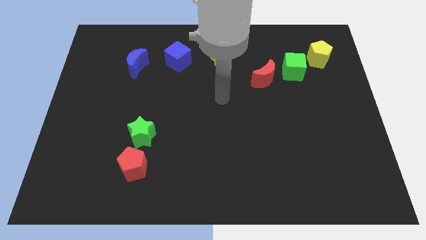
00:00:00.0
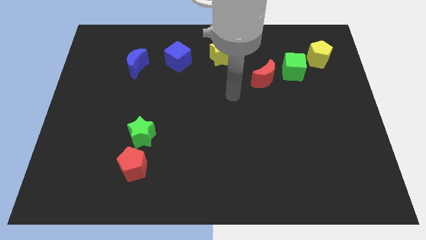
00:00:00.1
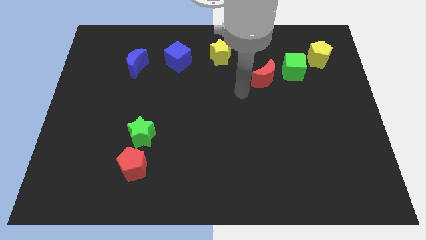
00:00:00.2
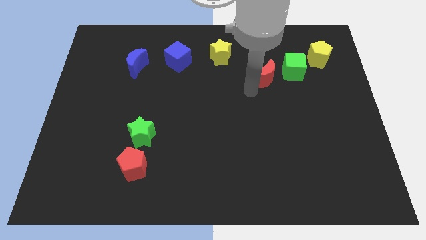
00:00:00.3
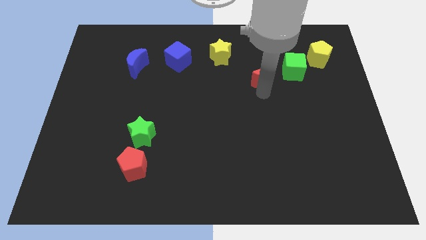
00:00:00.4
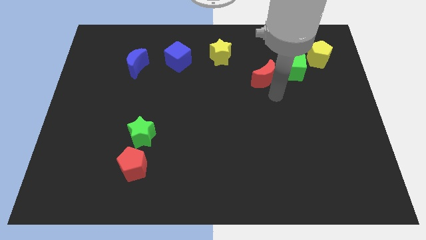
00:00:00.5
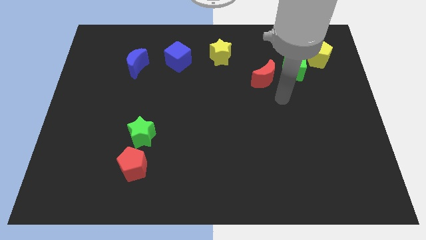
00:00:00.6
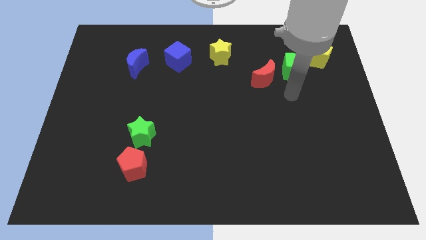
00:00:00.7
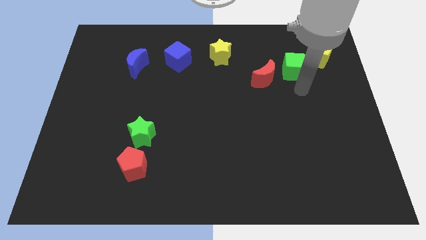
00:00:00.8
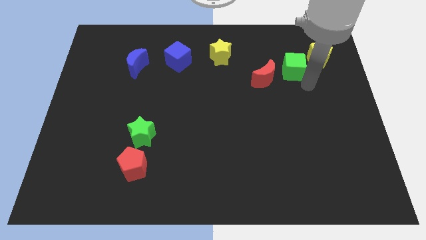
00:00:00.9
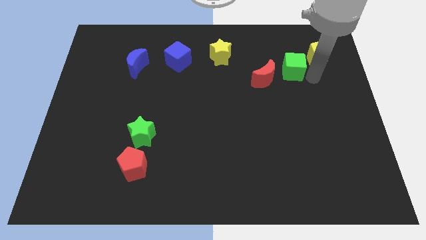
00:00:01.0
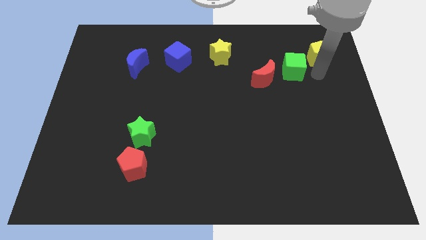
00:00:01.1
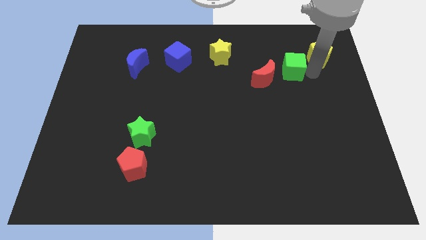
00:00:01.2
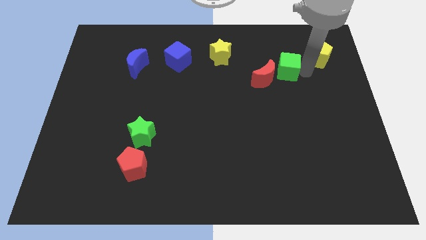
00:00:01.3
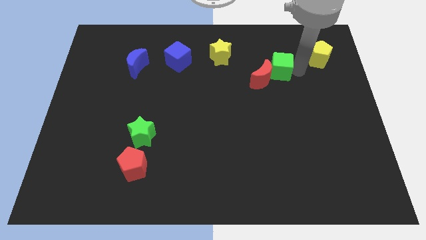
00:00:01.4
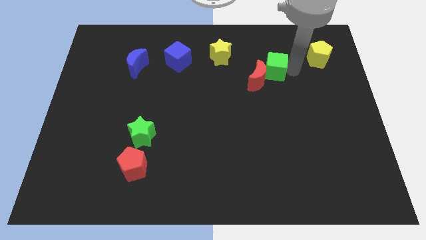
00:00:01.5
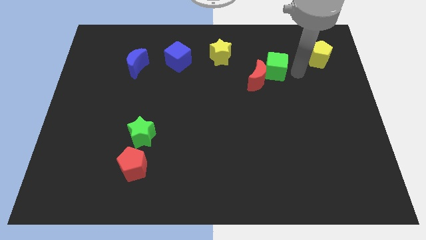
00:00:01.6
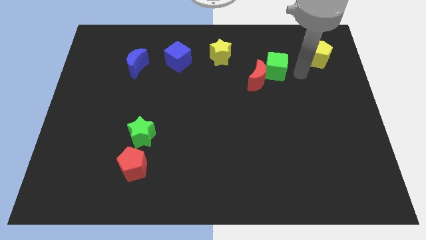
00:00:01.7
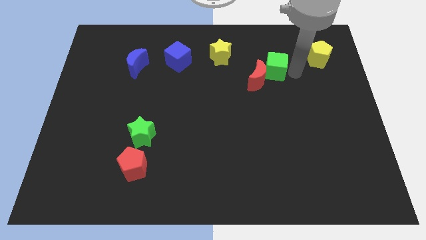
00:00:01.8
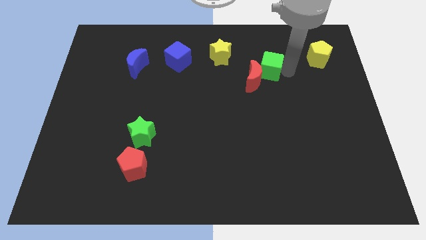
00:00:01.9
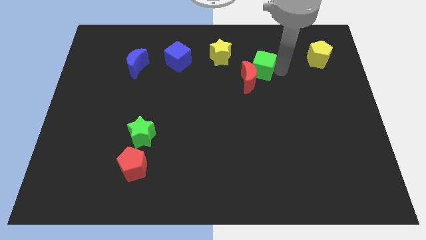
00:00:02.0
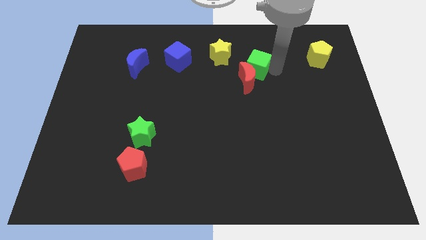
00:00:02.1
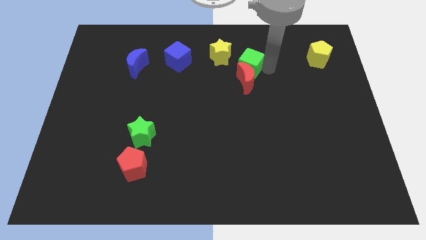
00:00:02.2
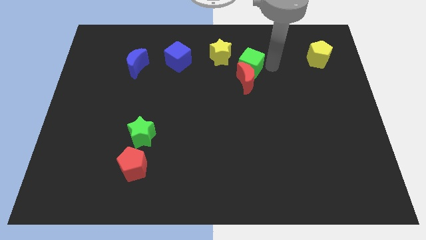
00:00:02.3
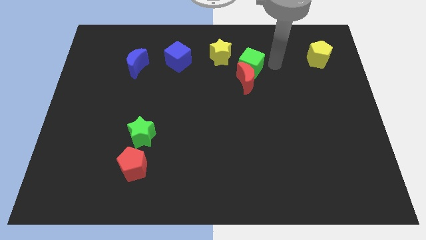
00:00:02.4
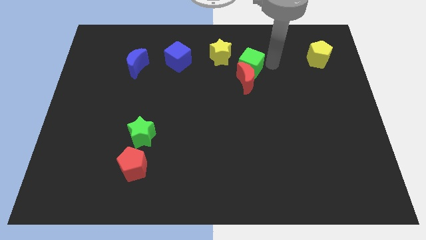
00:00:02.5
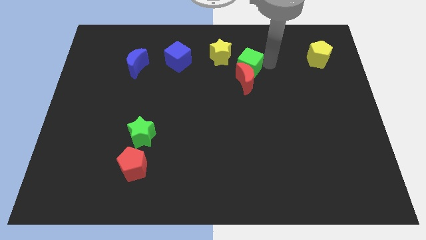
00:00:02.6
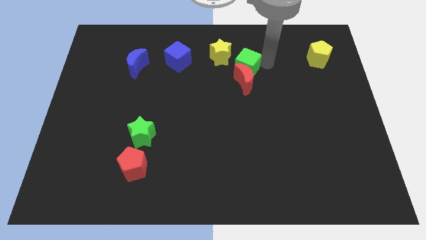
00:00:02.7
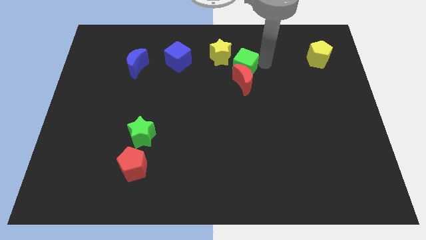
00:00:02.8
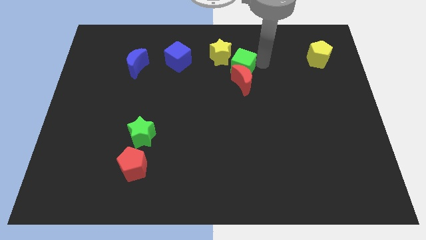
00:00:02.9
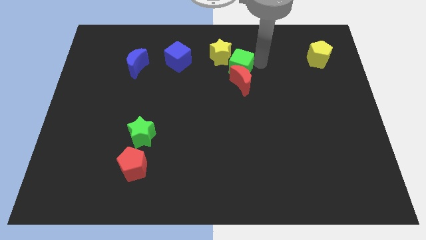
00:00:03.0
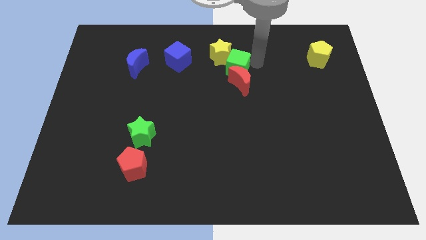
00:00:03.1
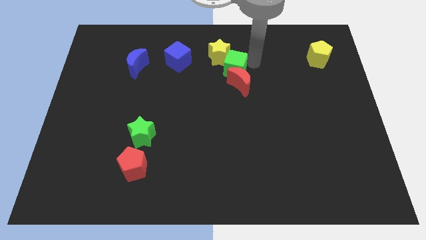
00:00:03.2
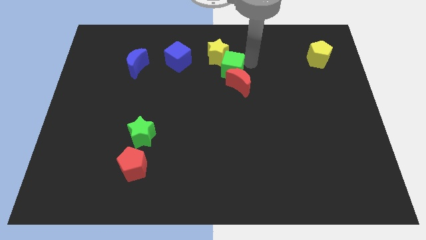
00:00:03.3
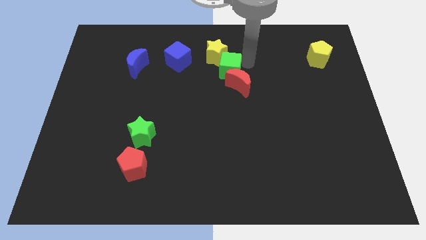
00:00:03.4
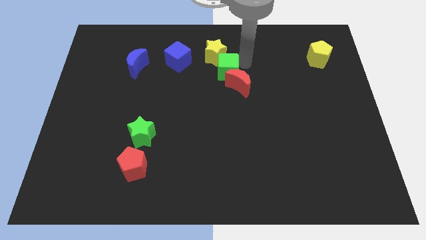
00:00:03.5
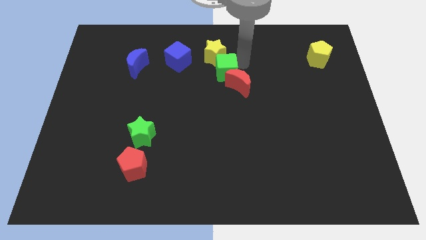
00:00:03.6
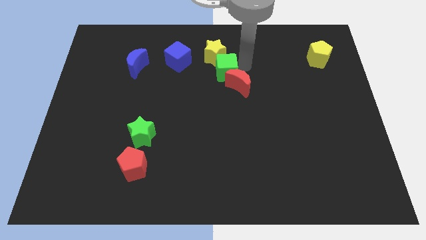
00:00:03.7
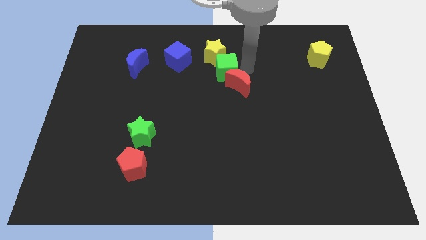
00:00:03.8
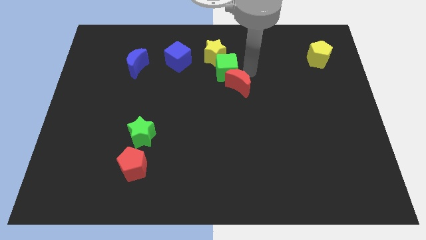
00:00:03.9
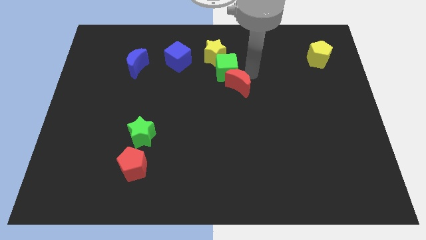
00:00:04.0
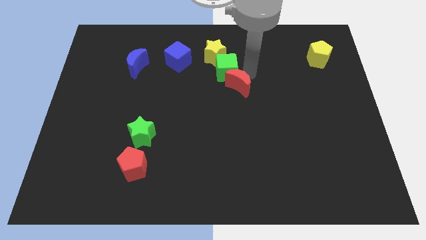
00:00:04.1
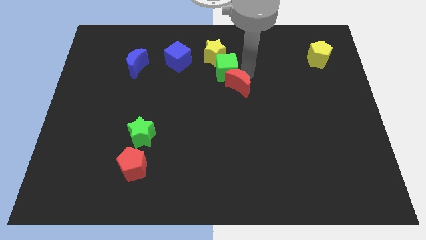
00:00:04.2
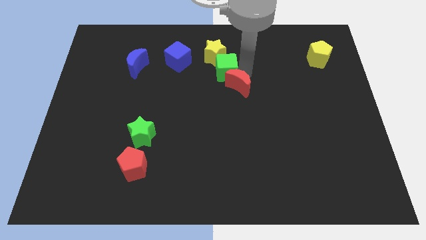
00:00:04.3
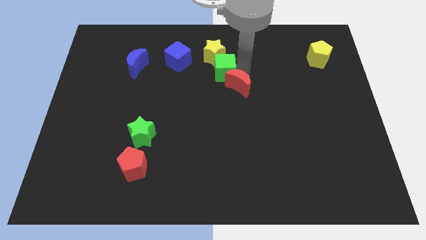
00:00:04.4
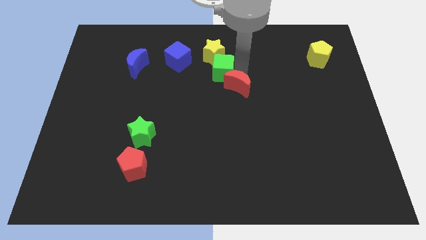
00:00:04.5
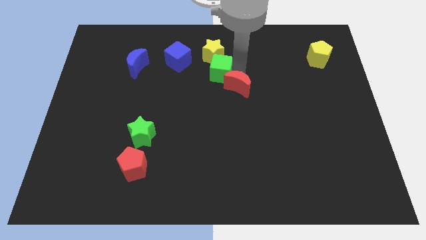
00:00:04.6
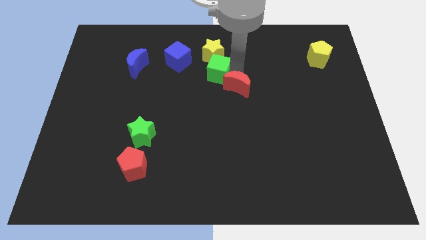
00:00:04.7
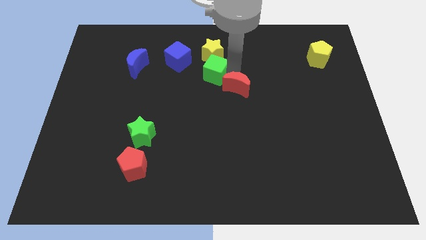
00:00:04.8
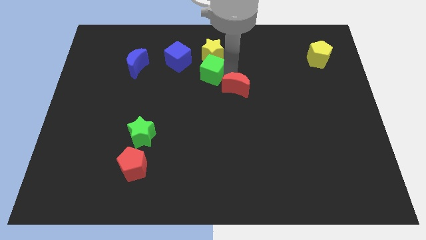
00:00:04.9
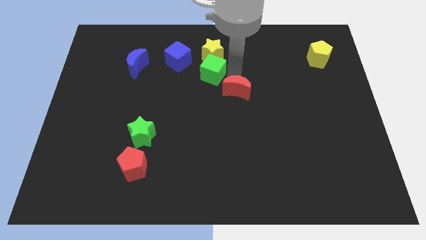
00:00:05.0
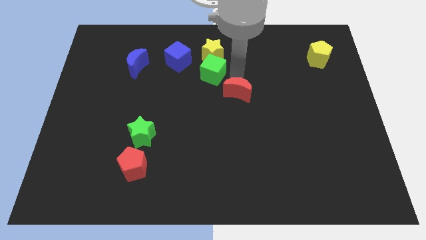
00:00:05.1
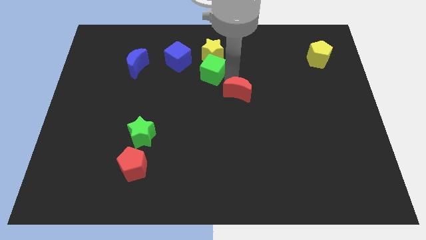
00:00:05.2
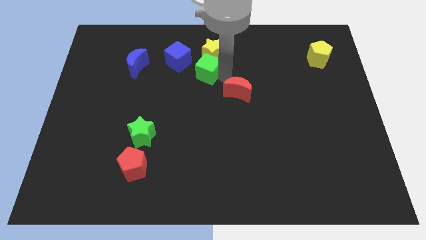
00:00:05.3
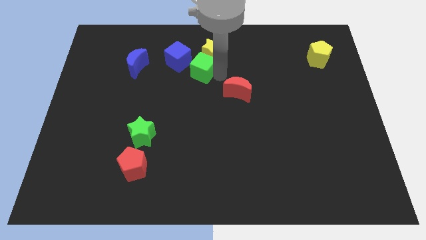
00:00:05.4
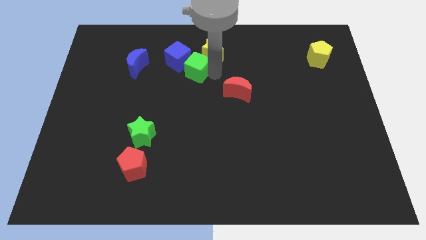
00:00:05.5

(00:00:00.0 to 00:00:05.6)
push the green cube to the right of the blue moon
